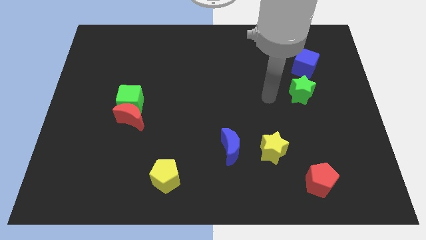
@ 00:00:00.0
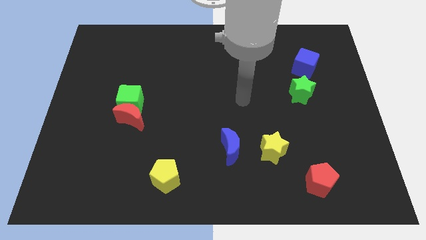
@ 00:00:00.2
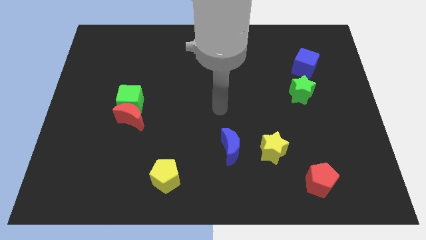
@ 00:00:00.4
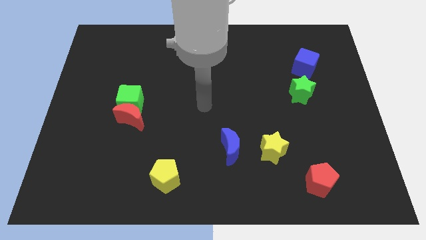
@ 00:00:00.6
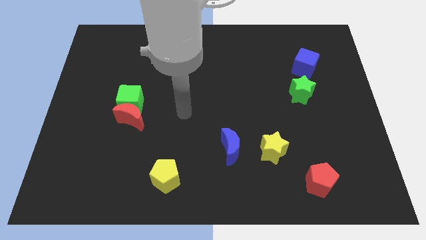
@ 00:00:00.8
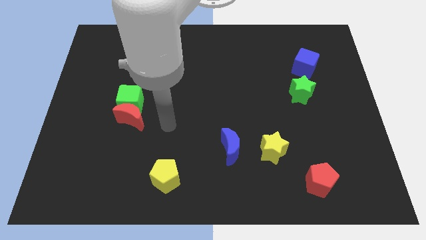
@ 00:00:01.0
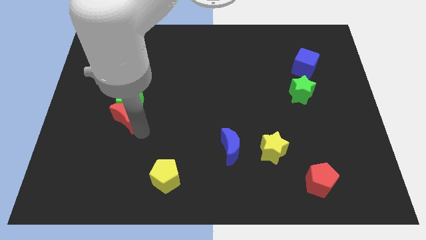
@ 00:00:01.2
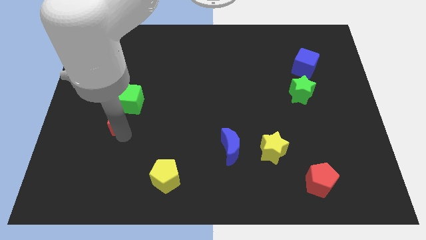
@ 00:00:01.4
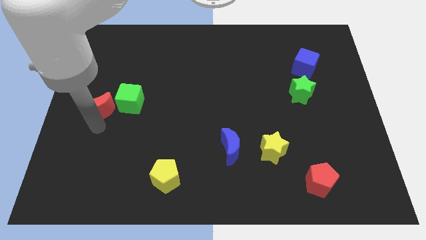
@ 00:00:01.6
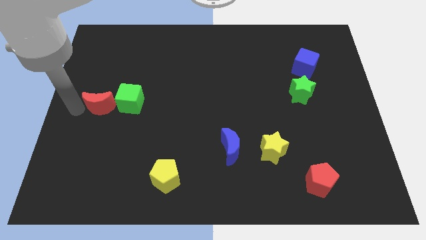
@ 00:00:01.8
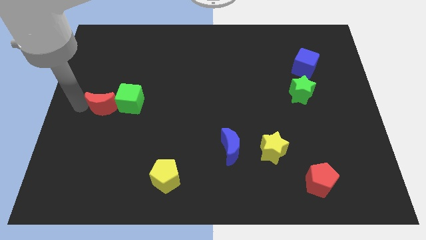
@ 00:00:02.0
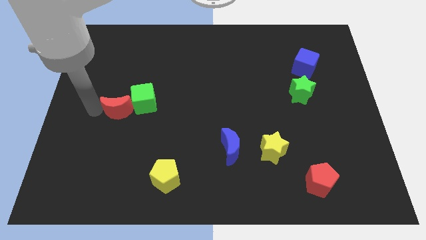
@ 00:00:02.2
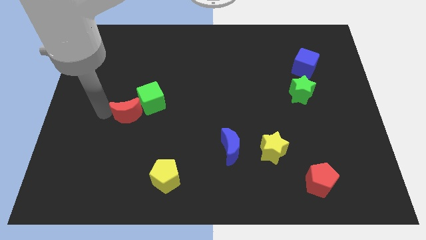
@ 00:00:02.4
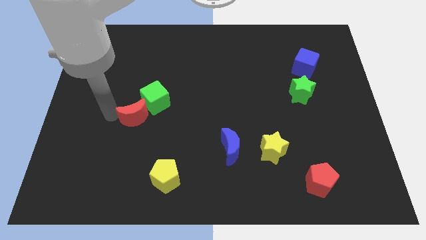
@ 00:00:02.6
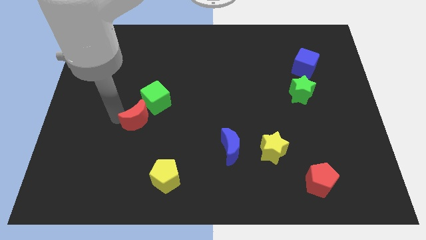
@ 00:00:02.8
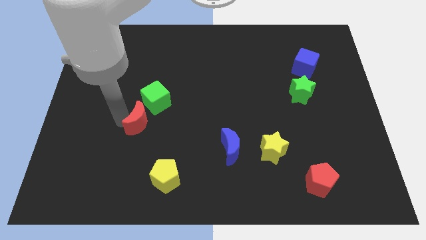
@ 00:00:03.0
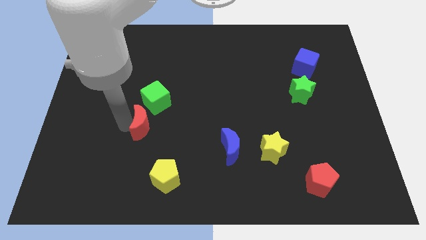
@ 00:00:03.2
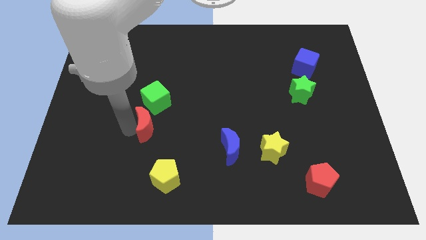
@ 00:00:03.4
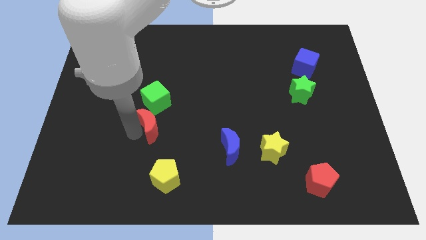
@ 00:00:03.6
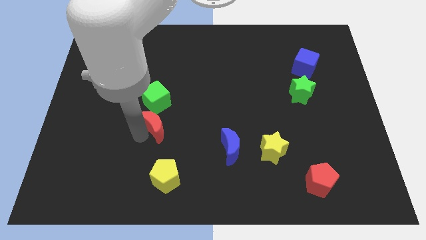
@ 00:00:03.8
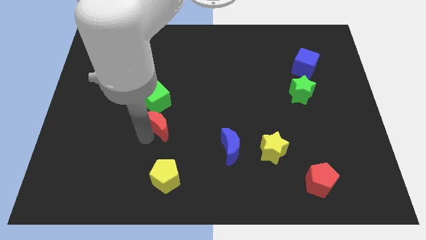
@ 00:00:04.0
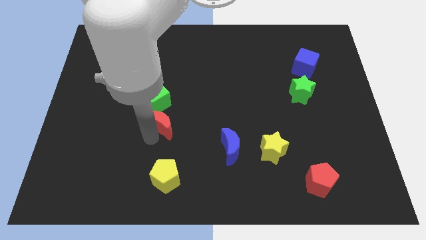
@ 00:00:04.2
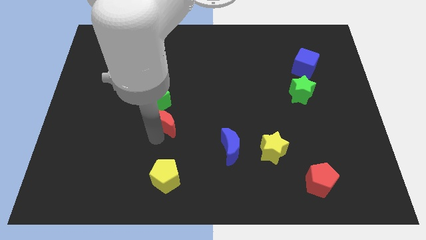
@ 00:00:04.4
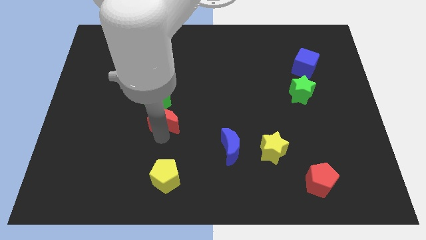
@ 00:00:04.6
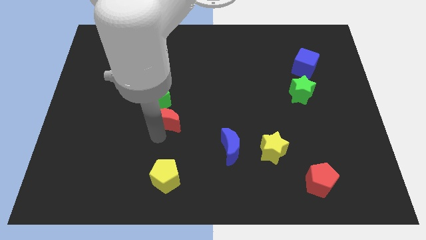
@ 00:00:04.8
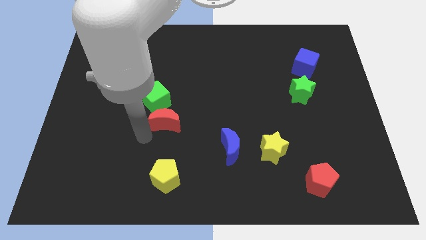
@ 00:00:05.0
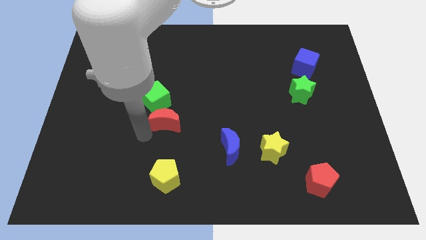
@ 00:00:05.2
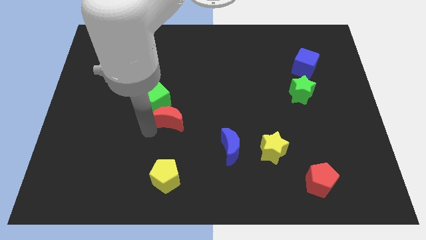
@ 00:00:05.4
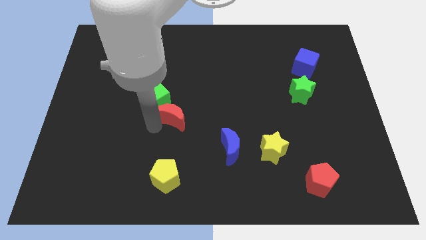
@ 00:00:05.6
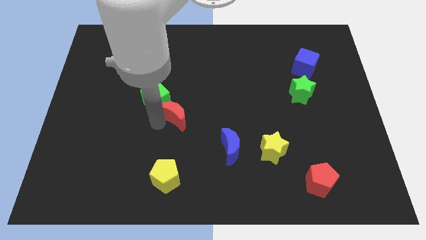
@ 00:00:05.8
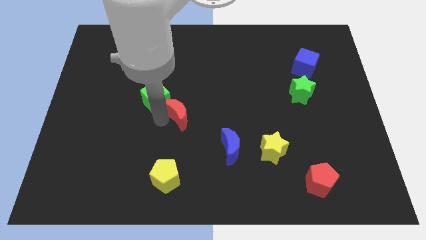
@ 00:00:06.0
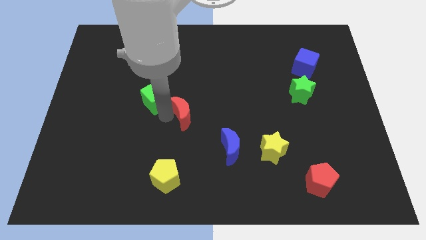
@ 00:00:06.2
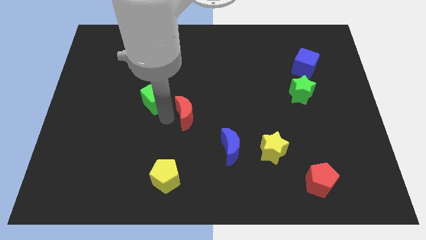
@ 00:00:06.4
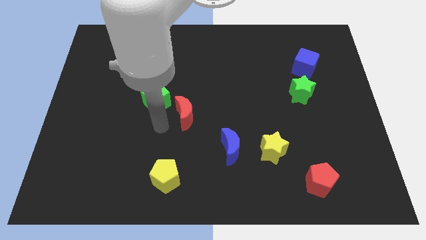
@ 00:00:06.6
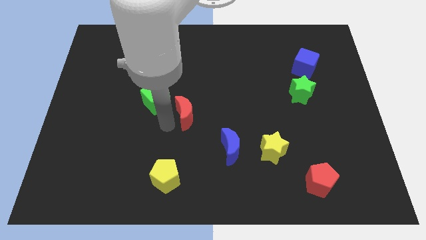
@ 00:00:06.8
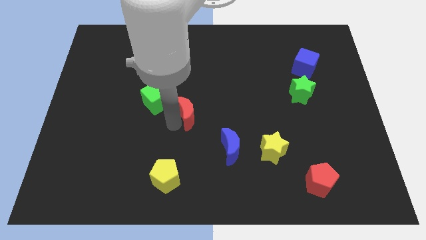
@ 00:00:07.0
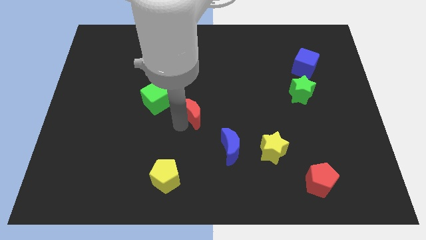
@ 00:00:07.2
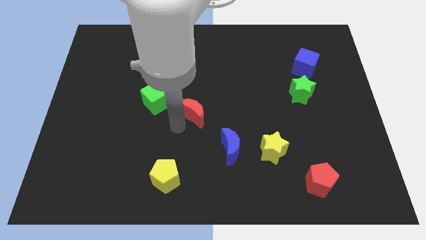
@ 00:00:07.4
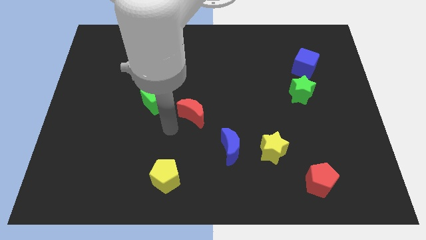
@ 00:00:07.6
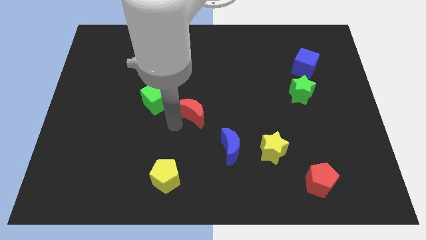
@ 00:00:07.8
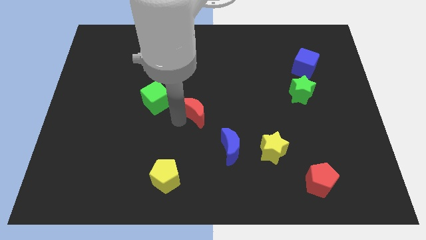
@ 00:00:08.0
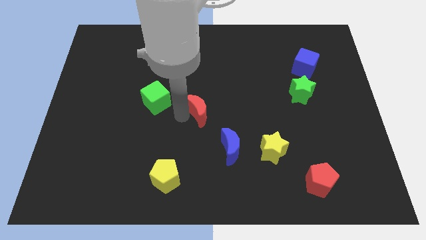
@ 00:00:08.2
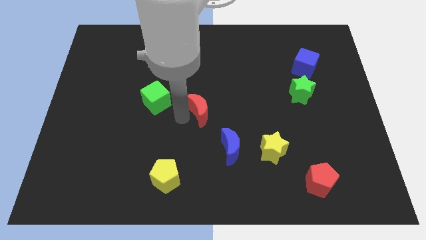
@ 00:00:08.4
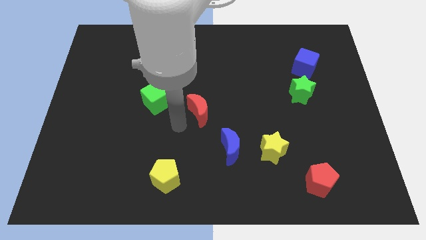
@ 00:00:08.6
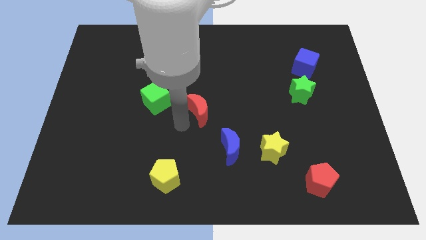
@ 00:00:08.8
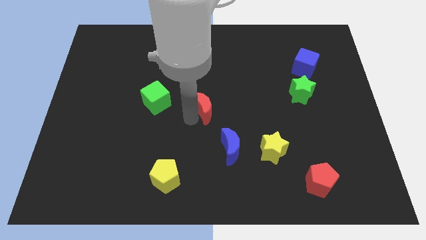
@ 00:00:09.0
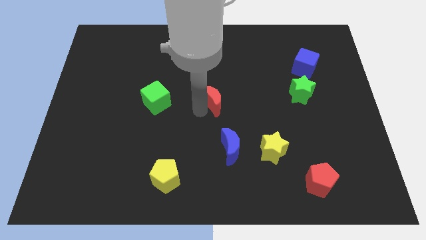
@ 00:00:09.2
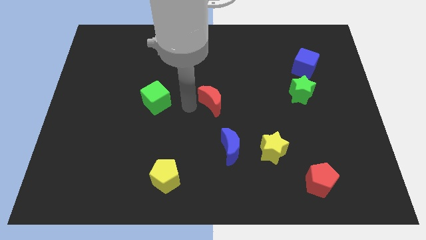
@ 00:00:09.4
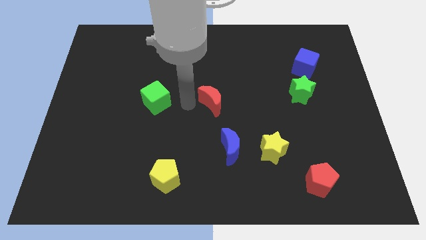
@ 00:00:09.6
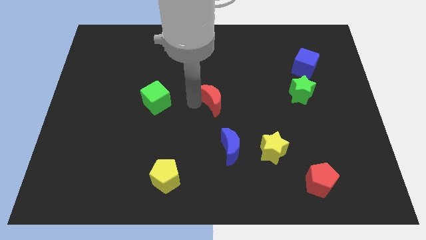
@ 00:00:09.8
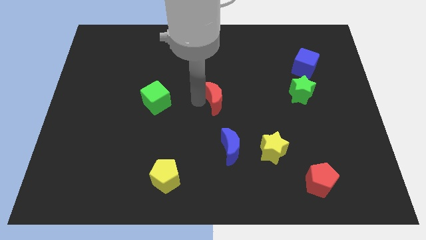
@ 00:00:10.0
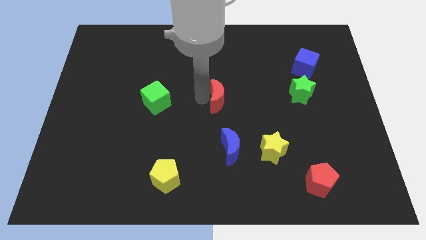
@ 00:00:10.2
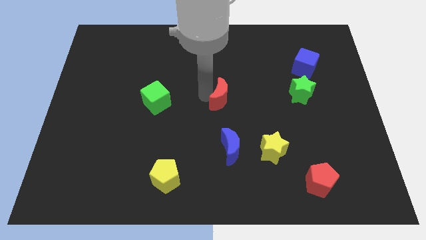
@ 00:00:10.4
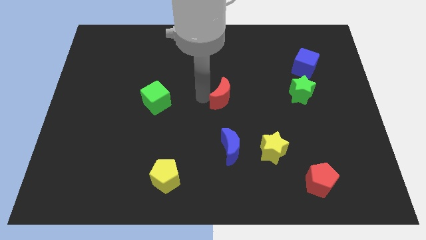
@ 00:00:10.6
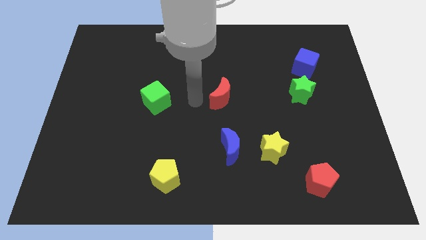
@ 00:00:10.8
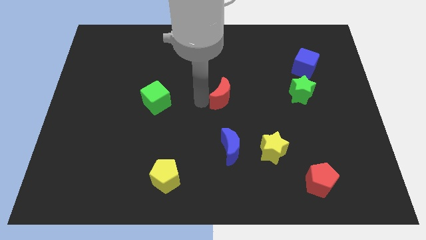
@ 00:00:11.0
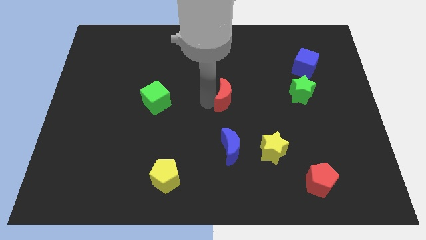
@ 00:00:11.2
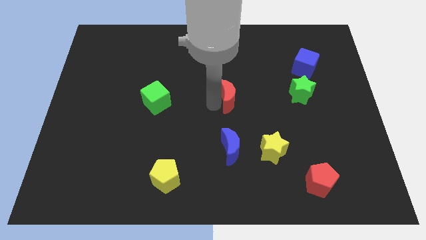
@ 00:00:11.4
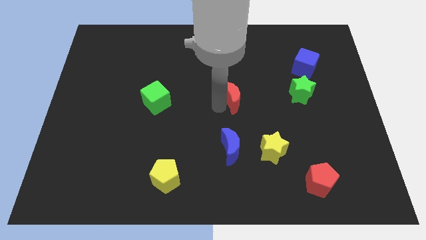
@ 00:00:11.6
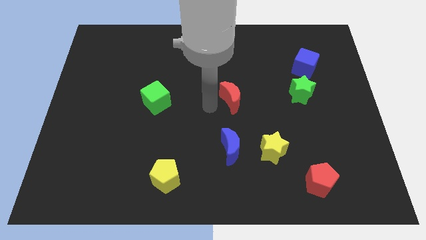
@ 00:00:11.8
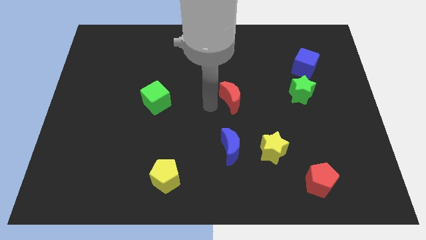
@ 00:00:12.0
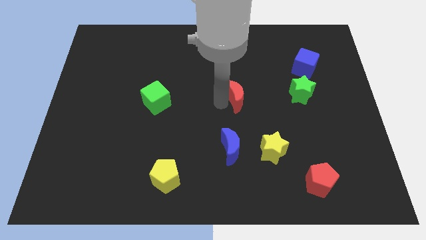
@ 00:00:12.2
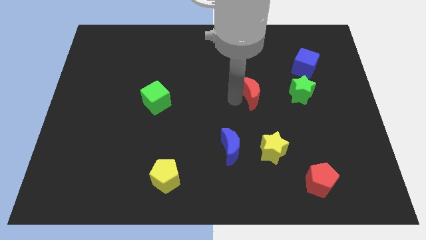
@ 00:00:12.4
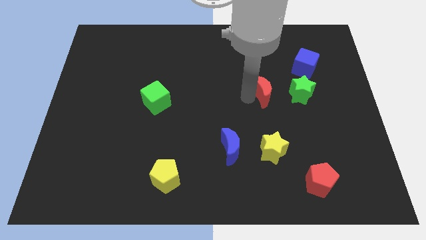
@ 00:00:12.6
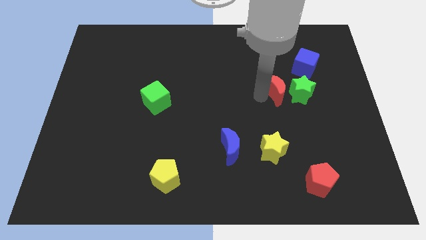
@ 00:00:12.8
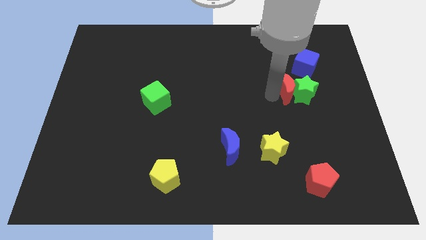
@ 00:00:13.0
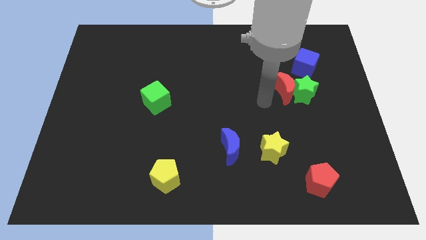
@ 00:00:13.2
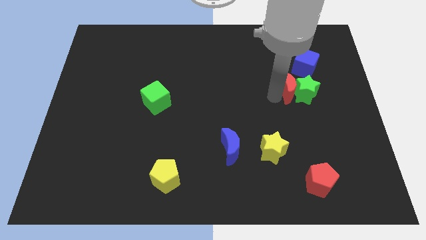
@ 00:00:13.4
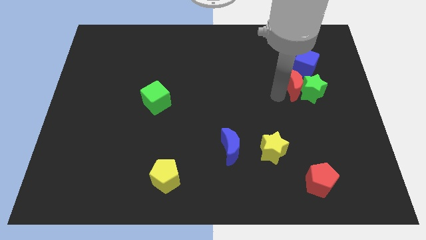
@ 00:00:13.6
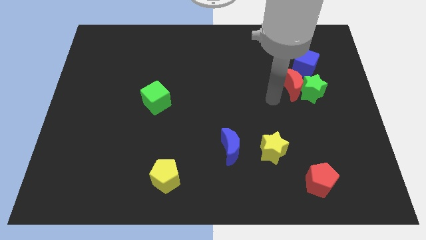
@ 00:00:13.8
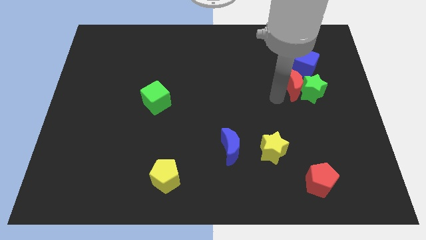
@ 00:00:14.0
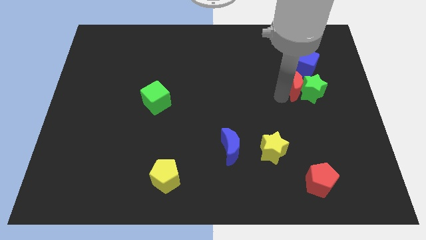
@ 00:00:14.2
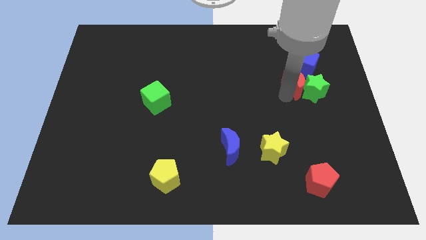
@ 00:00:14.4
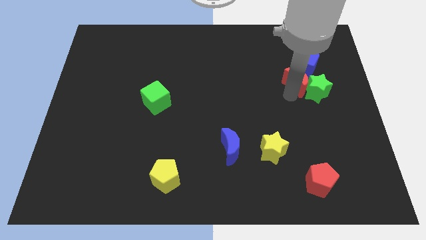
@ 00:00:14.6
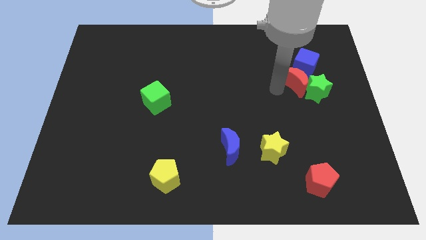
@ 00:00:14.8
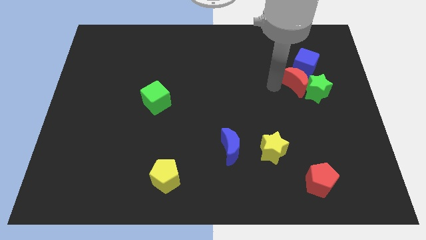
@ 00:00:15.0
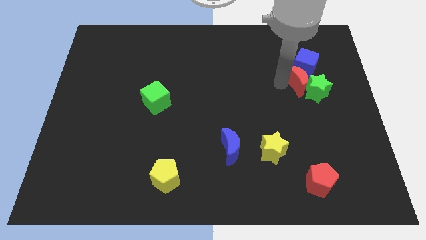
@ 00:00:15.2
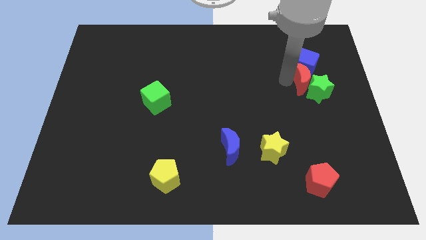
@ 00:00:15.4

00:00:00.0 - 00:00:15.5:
slide the red moon to the bottom right side of the blue cube
